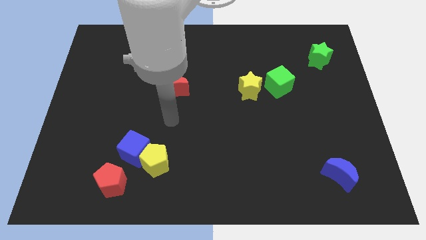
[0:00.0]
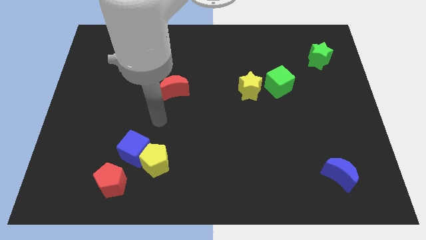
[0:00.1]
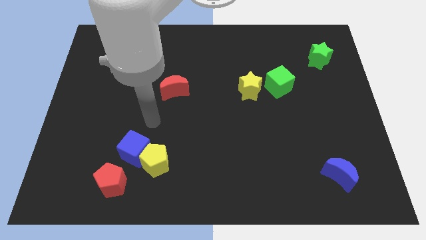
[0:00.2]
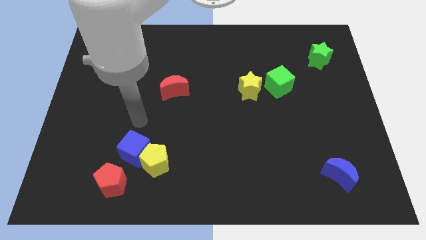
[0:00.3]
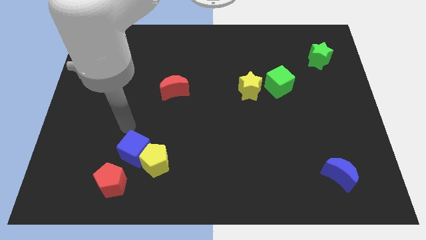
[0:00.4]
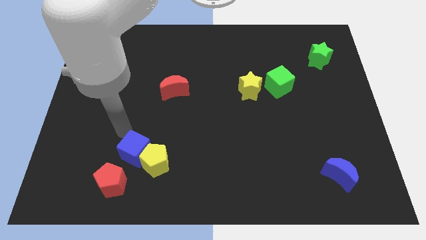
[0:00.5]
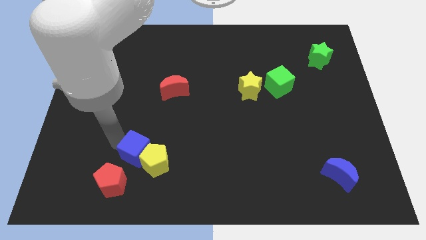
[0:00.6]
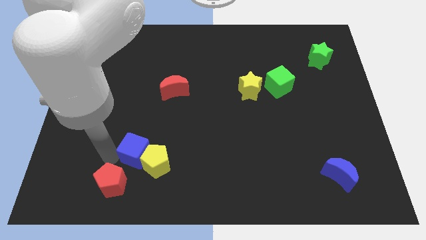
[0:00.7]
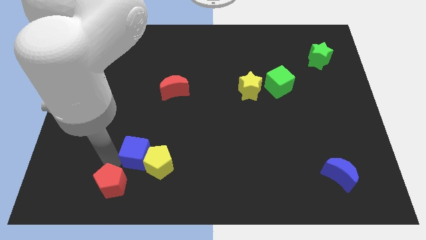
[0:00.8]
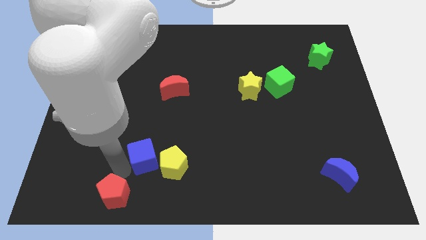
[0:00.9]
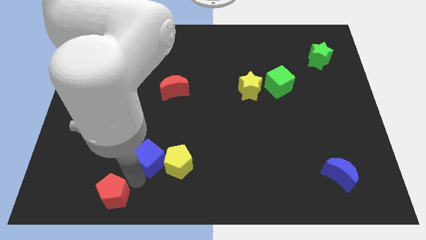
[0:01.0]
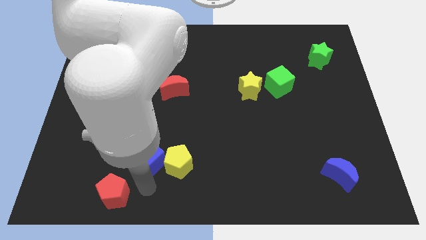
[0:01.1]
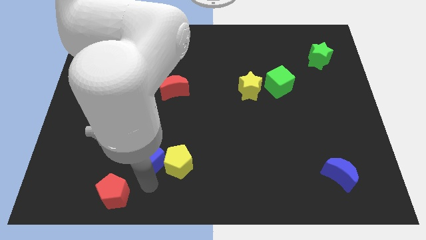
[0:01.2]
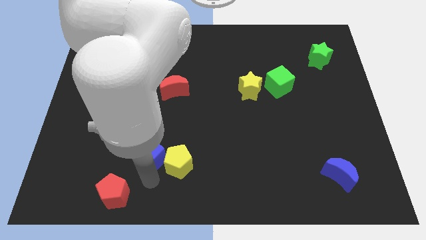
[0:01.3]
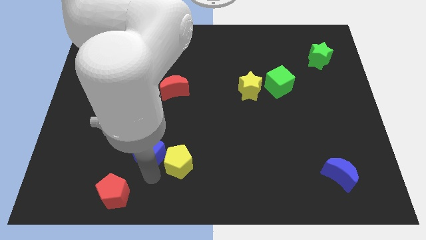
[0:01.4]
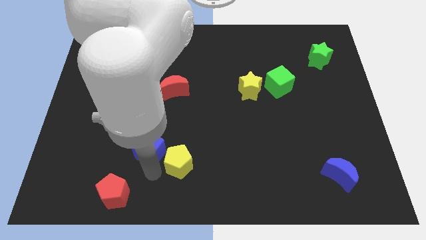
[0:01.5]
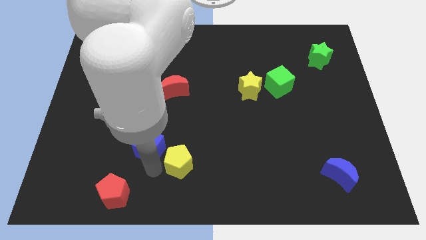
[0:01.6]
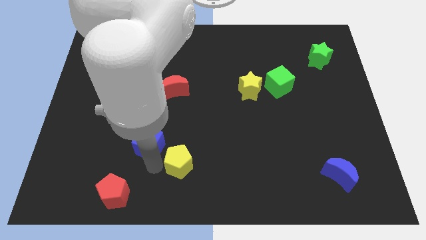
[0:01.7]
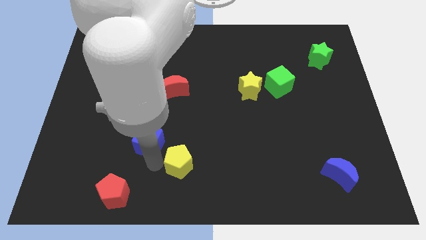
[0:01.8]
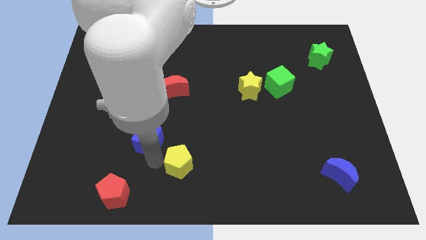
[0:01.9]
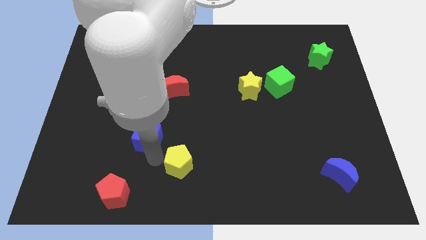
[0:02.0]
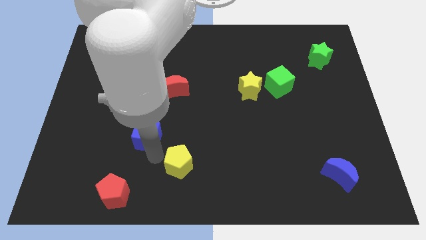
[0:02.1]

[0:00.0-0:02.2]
pull the blue cube apart from the yellow pentagon and red pentagon

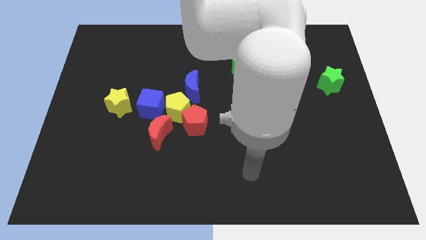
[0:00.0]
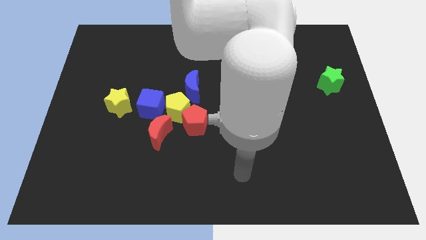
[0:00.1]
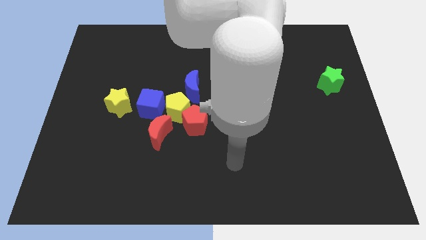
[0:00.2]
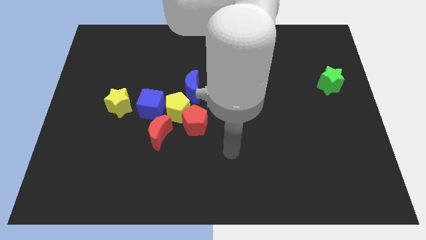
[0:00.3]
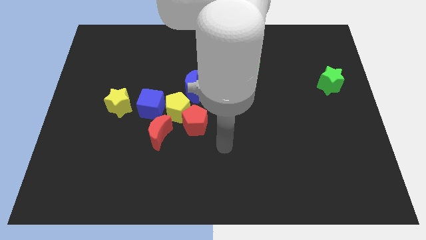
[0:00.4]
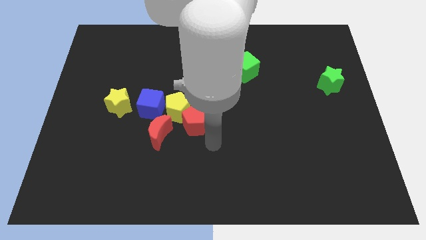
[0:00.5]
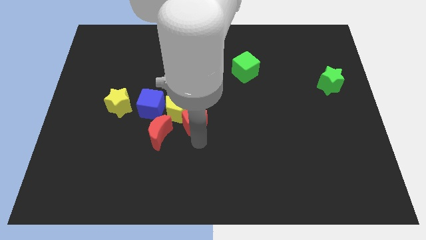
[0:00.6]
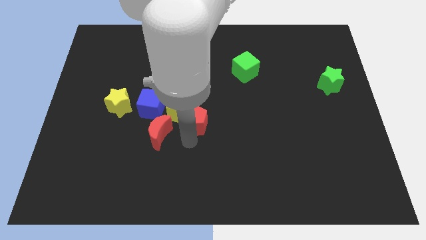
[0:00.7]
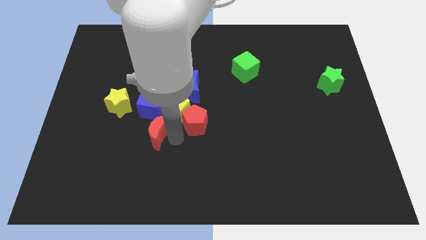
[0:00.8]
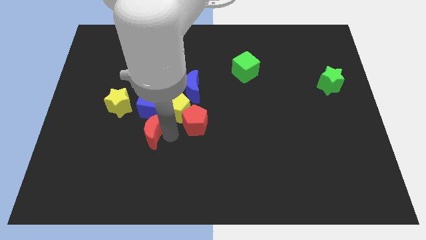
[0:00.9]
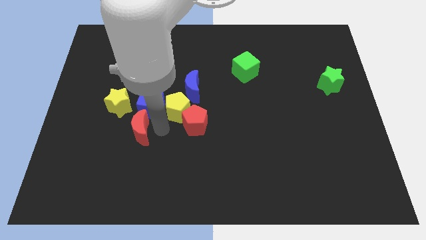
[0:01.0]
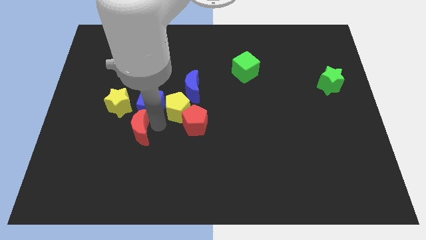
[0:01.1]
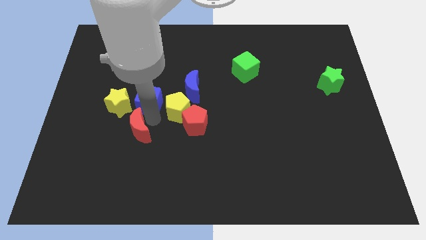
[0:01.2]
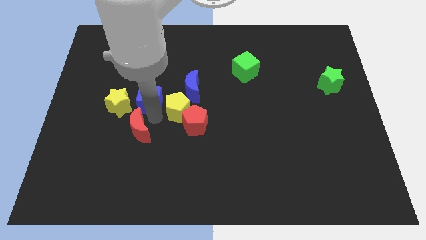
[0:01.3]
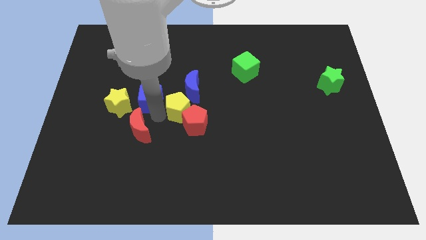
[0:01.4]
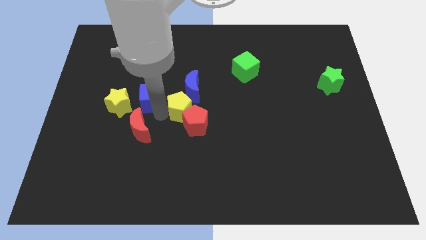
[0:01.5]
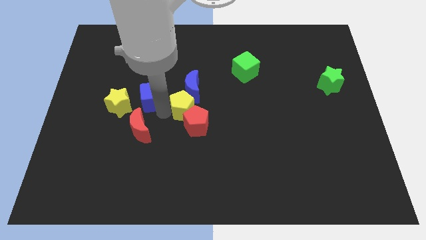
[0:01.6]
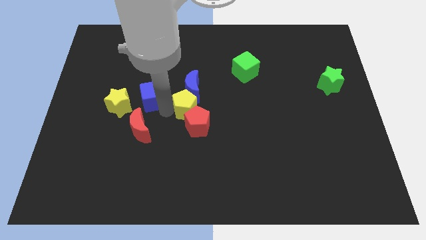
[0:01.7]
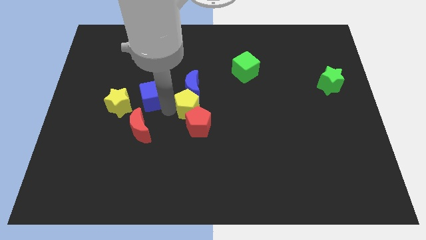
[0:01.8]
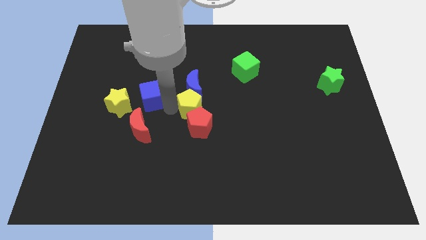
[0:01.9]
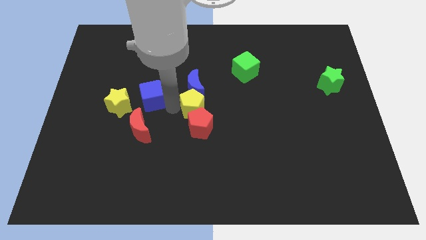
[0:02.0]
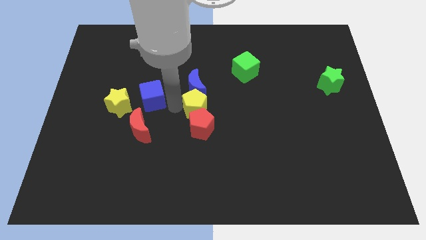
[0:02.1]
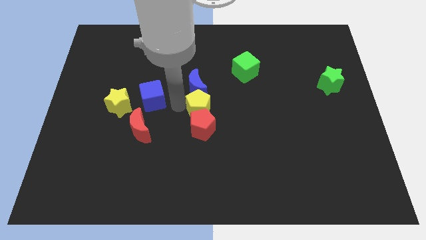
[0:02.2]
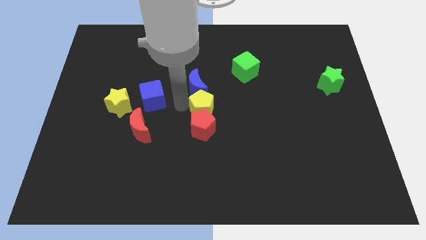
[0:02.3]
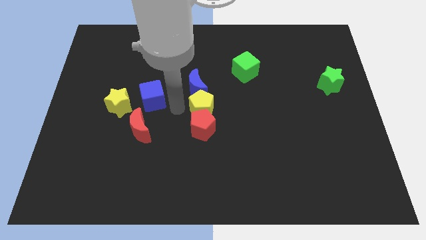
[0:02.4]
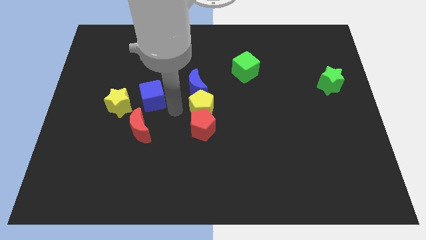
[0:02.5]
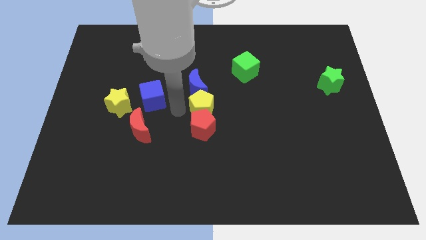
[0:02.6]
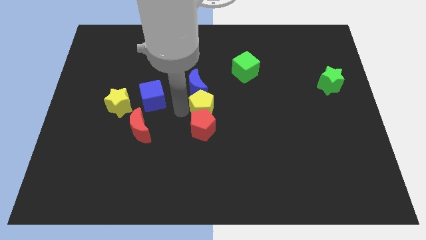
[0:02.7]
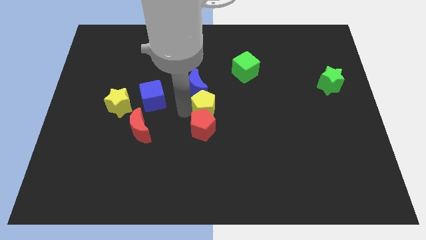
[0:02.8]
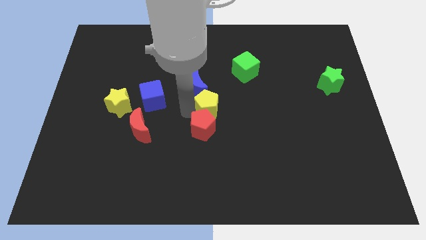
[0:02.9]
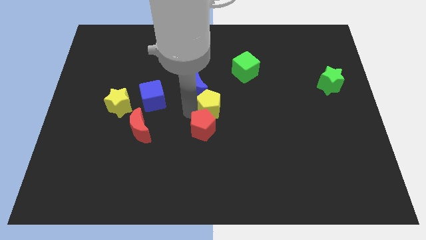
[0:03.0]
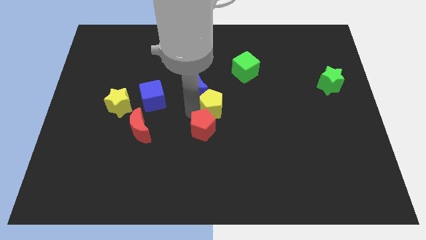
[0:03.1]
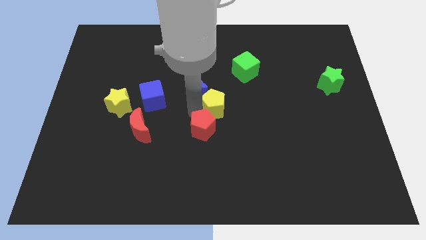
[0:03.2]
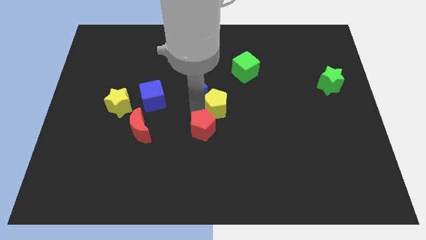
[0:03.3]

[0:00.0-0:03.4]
separate the yellow pentagon from the group

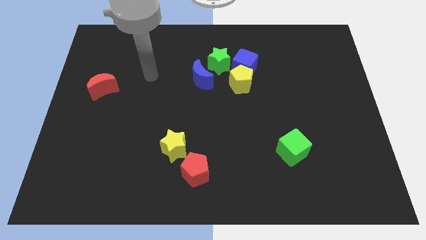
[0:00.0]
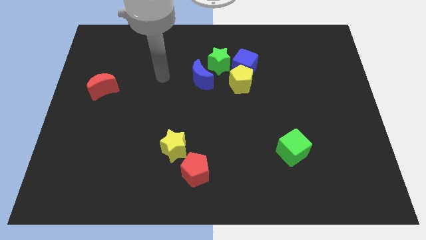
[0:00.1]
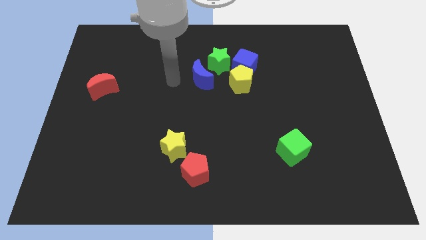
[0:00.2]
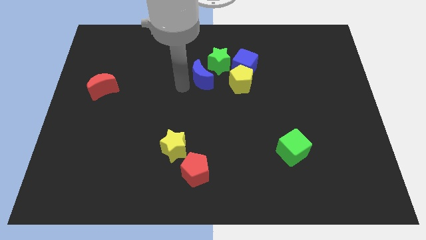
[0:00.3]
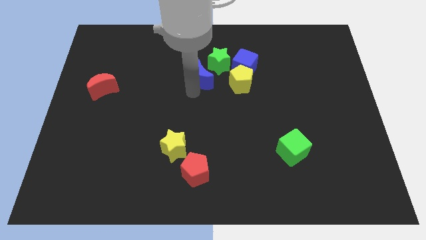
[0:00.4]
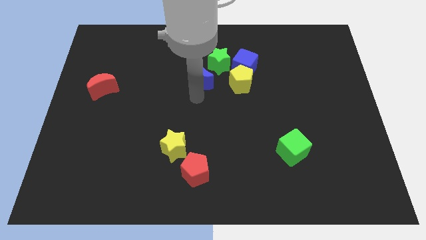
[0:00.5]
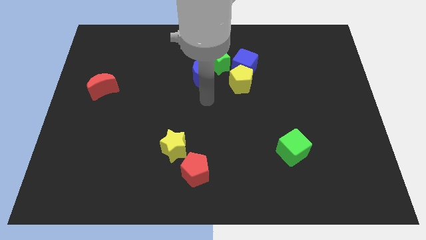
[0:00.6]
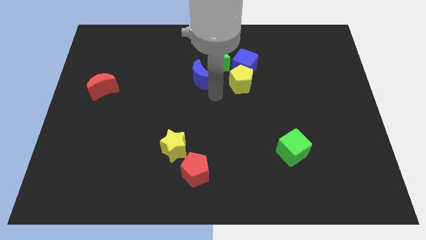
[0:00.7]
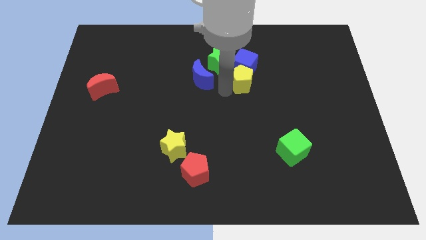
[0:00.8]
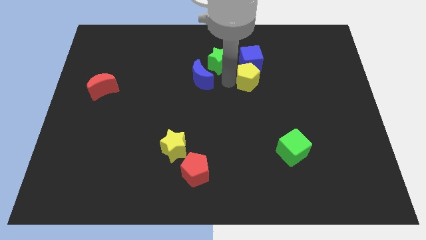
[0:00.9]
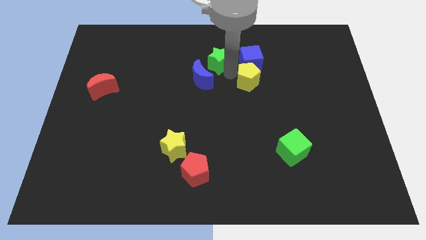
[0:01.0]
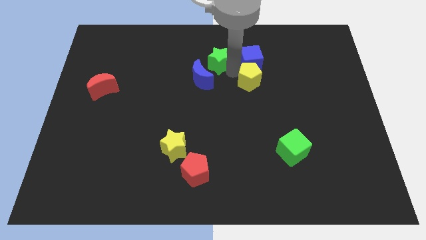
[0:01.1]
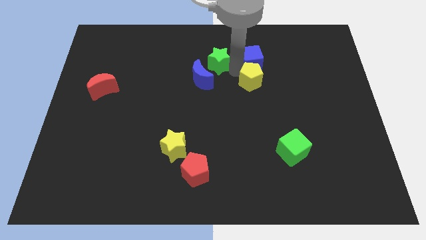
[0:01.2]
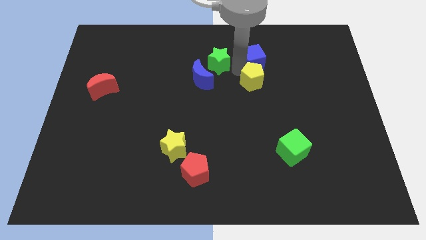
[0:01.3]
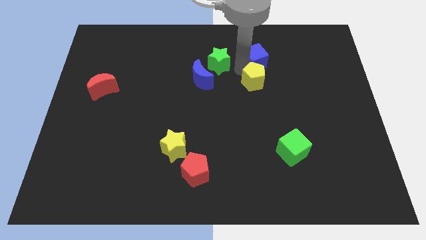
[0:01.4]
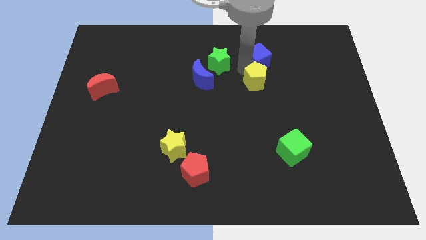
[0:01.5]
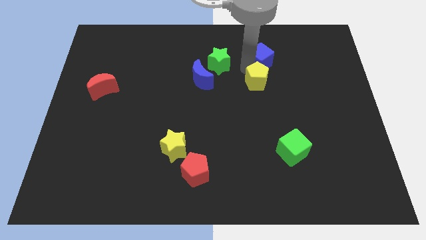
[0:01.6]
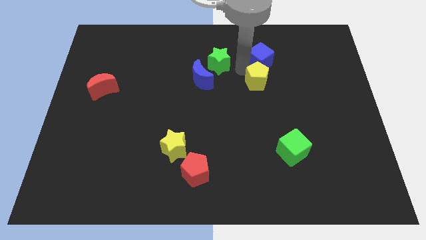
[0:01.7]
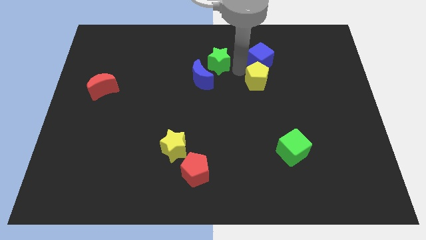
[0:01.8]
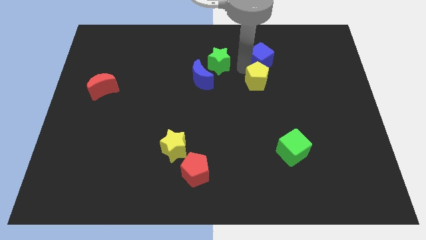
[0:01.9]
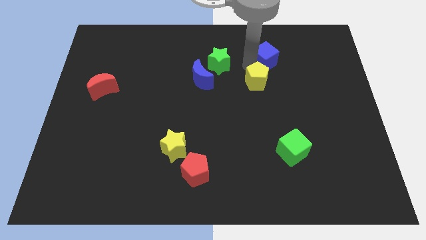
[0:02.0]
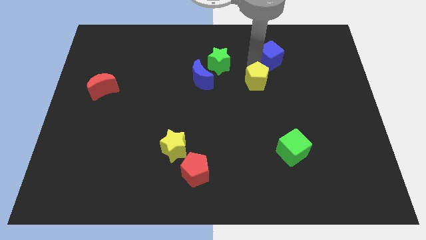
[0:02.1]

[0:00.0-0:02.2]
pull the blue cube apart from the yellow pentagon and green star

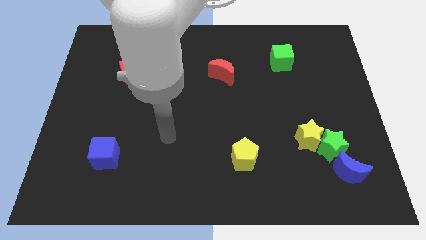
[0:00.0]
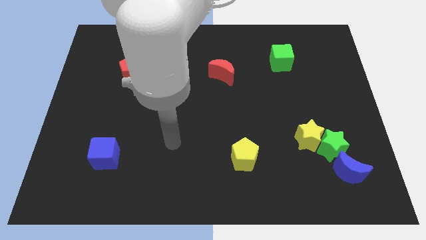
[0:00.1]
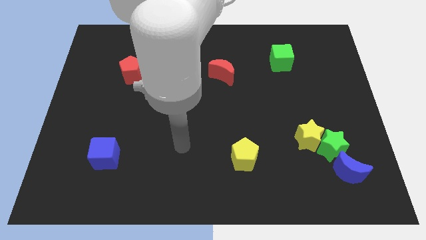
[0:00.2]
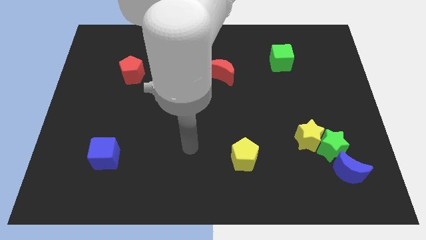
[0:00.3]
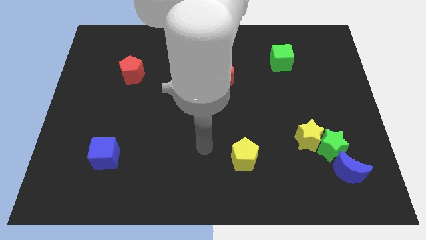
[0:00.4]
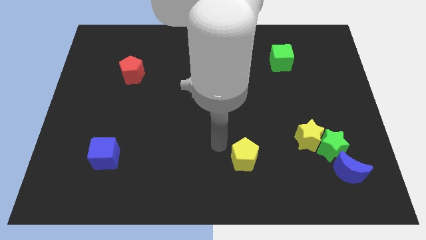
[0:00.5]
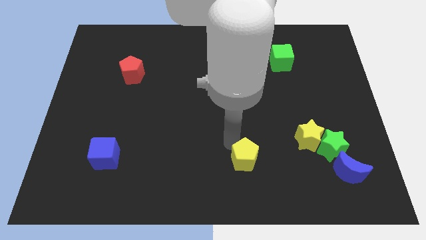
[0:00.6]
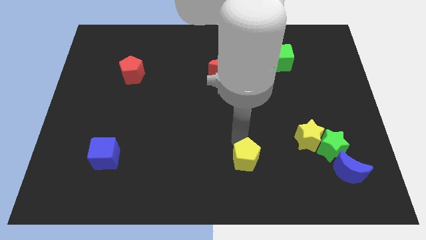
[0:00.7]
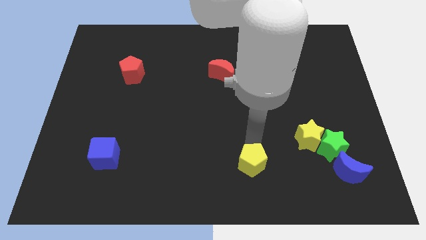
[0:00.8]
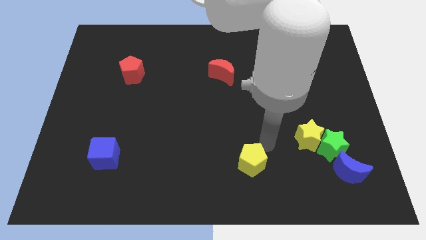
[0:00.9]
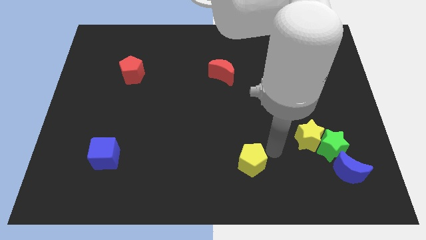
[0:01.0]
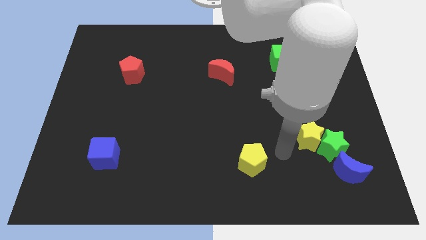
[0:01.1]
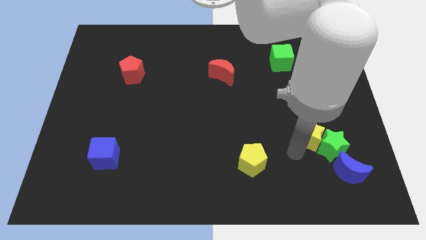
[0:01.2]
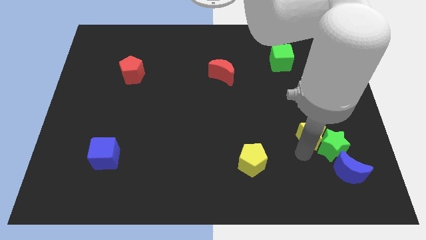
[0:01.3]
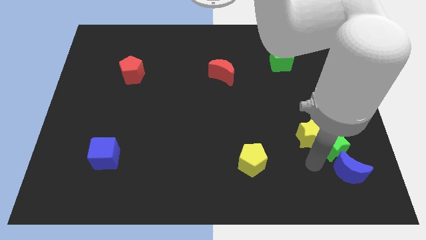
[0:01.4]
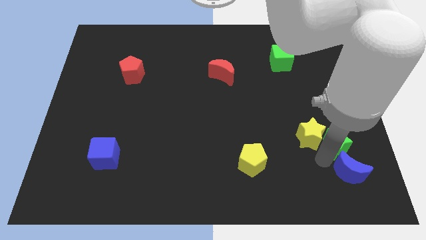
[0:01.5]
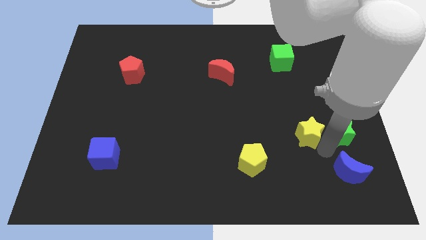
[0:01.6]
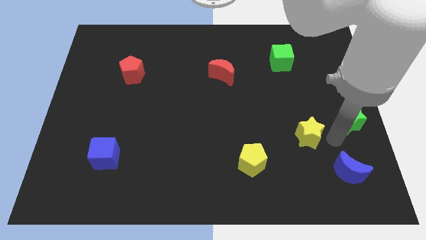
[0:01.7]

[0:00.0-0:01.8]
separate the yellow star from the green star

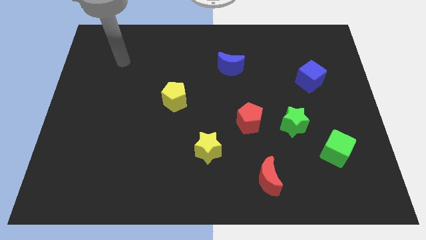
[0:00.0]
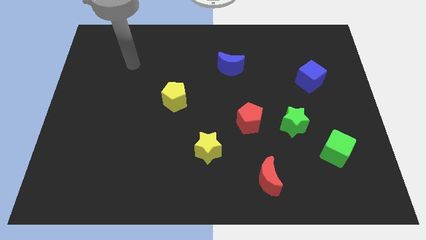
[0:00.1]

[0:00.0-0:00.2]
pull the red pentagon apart from the green star
